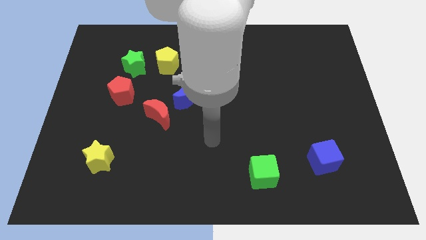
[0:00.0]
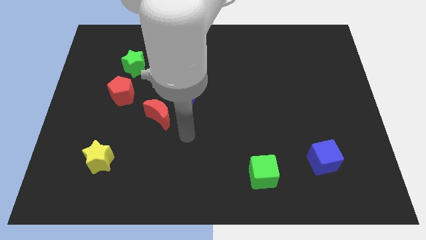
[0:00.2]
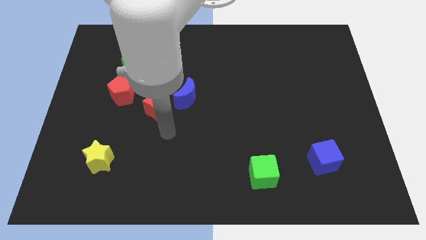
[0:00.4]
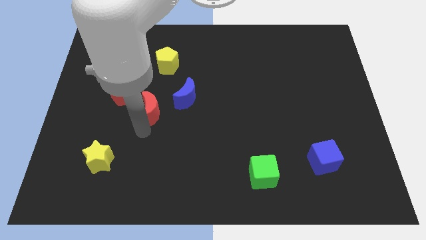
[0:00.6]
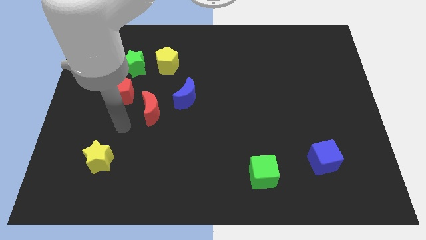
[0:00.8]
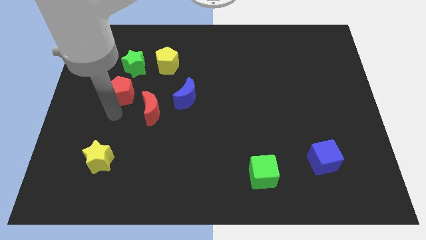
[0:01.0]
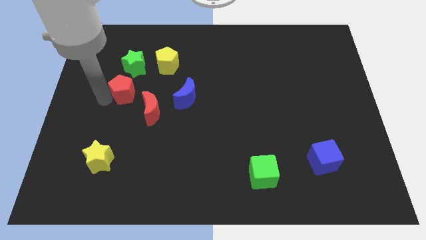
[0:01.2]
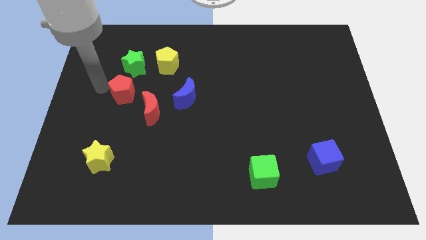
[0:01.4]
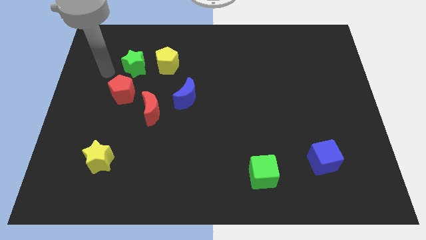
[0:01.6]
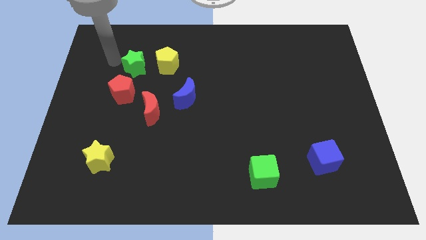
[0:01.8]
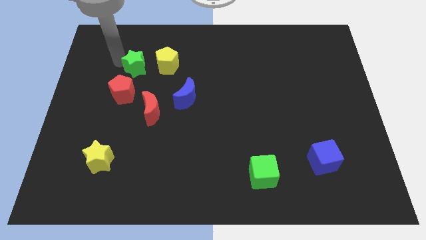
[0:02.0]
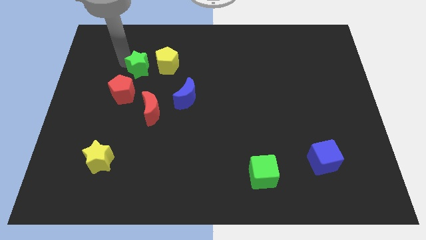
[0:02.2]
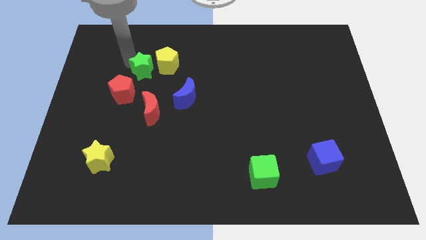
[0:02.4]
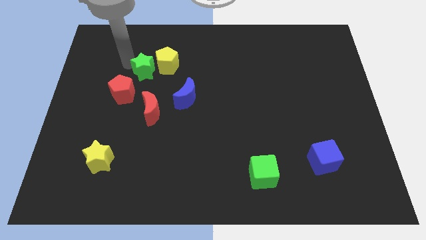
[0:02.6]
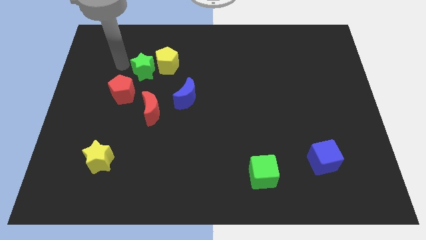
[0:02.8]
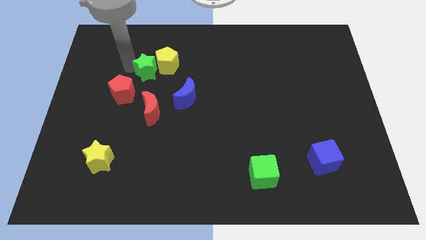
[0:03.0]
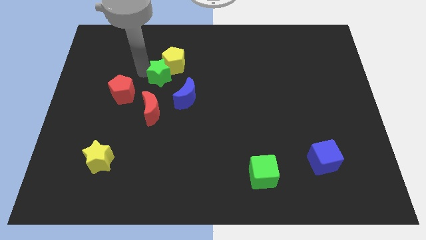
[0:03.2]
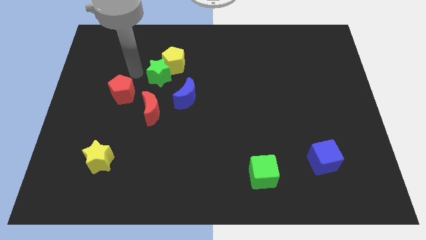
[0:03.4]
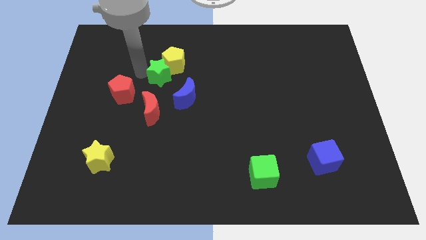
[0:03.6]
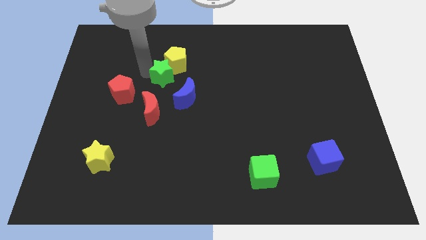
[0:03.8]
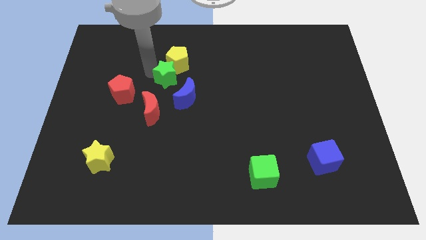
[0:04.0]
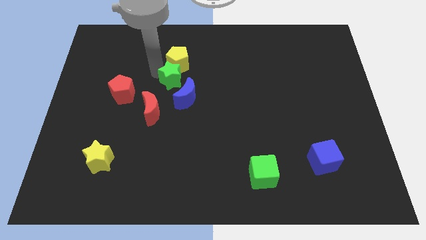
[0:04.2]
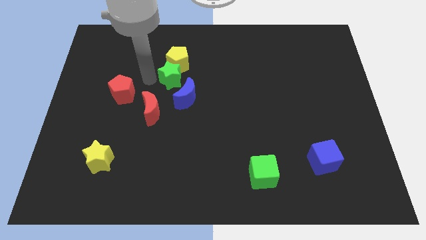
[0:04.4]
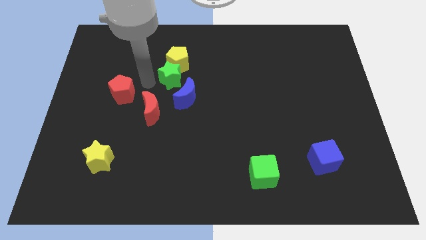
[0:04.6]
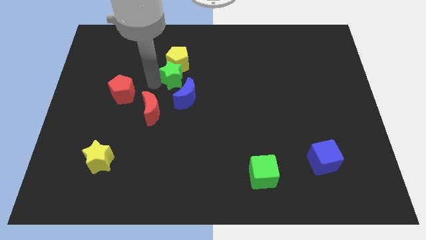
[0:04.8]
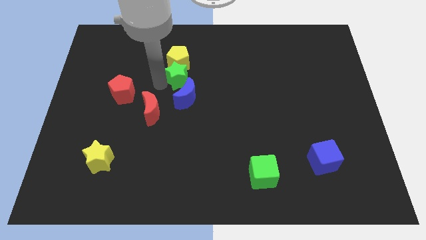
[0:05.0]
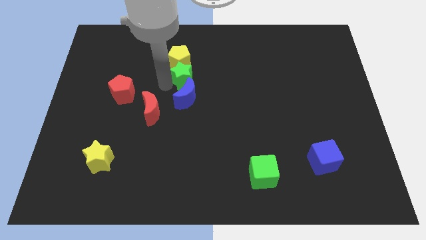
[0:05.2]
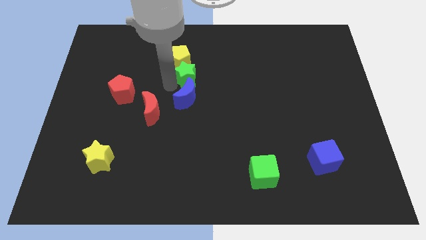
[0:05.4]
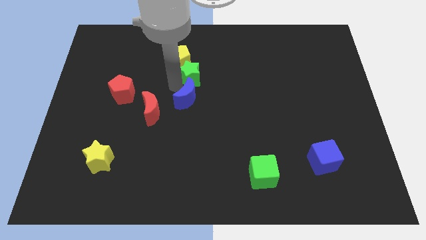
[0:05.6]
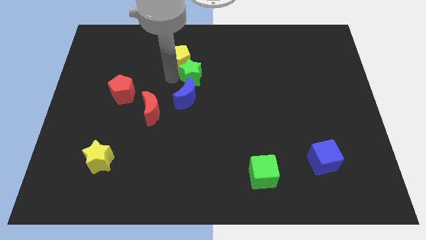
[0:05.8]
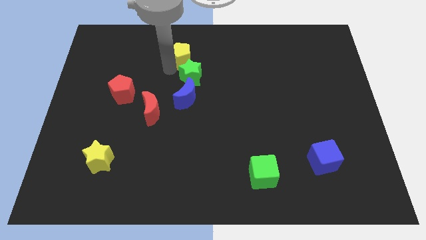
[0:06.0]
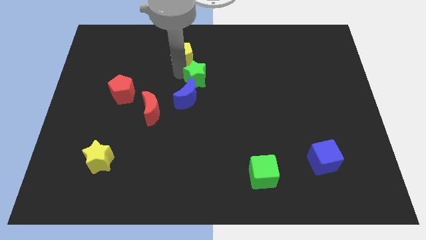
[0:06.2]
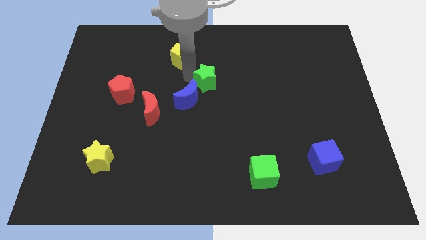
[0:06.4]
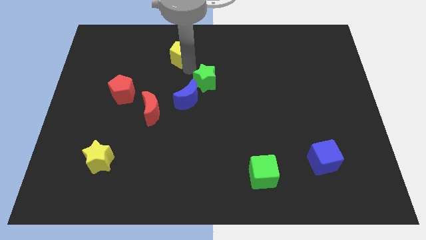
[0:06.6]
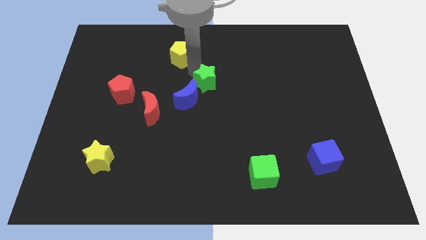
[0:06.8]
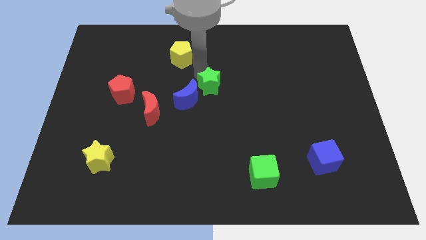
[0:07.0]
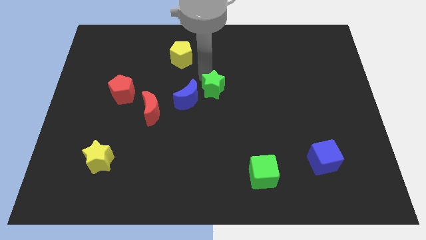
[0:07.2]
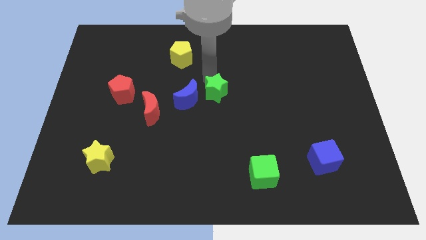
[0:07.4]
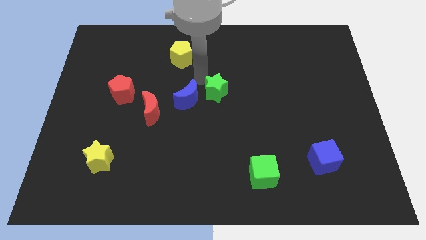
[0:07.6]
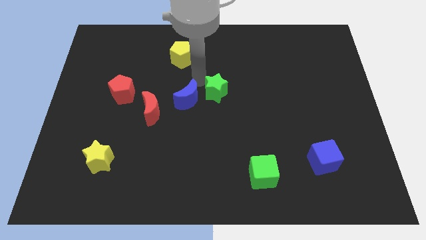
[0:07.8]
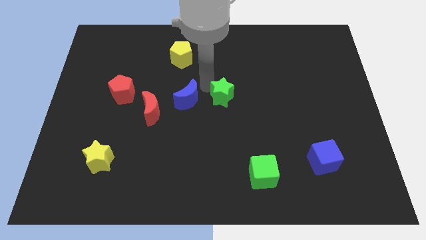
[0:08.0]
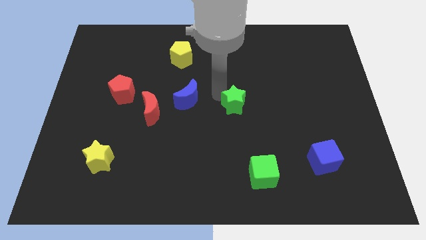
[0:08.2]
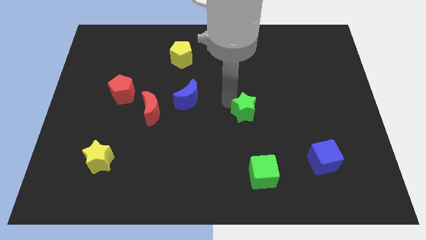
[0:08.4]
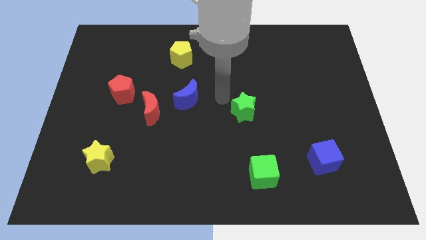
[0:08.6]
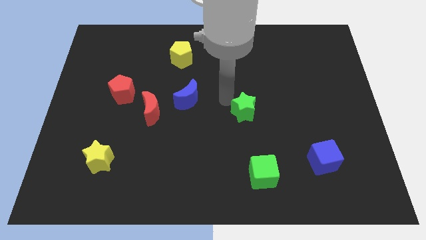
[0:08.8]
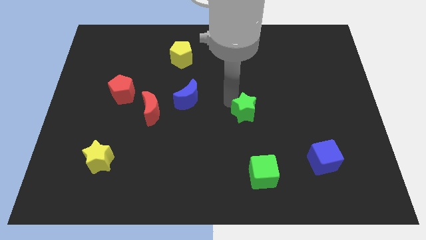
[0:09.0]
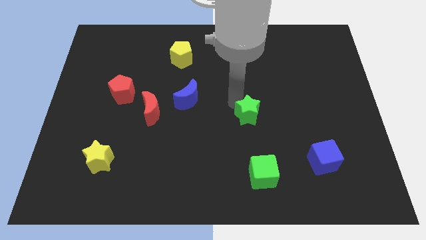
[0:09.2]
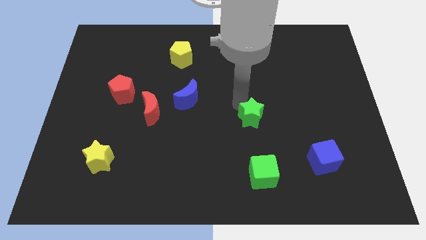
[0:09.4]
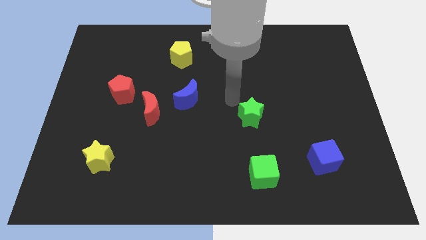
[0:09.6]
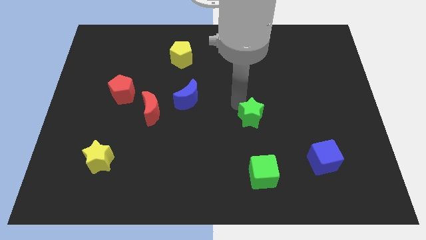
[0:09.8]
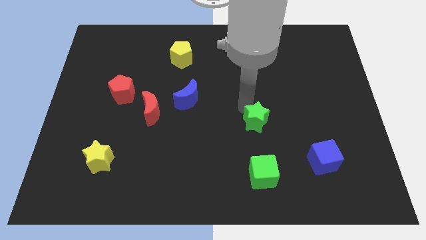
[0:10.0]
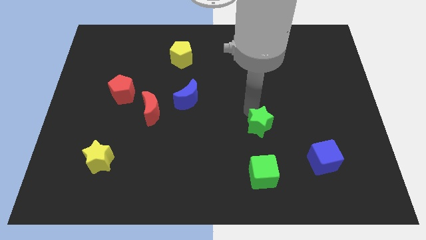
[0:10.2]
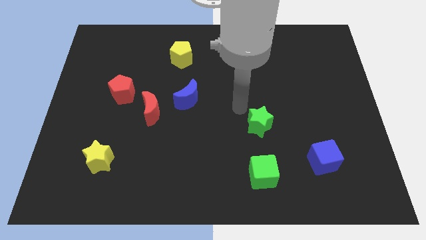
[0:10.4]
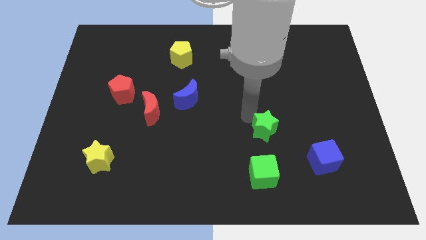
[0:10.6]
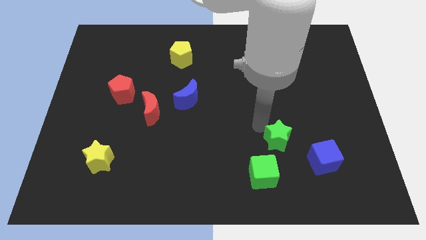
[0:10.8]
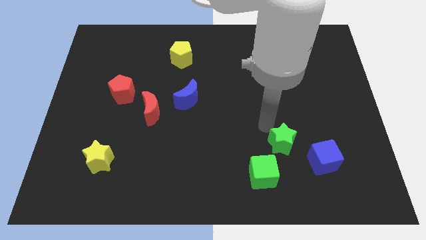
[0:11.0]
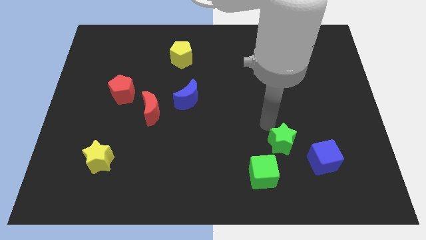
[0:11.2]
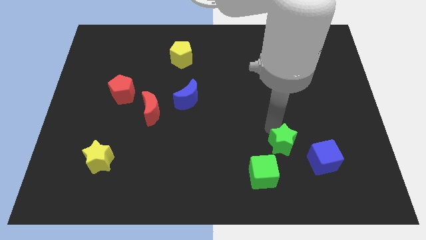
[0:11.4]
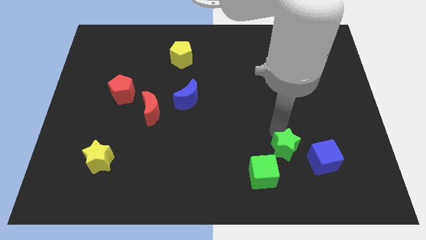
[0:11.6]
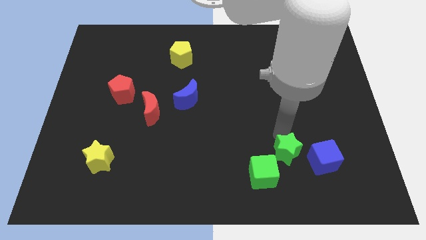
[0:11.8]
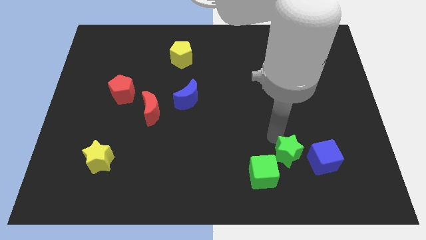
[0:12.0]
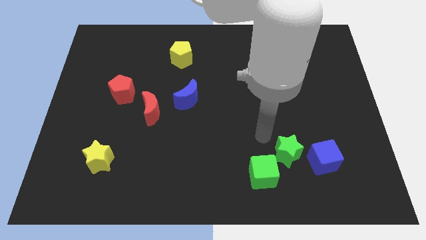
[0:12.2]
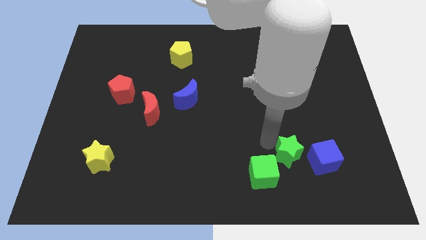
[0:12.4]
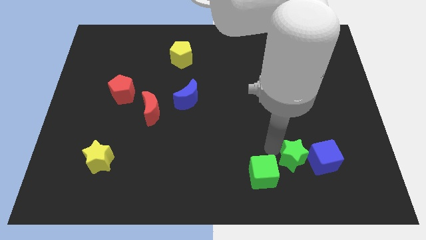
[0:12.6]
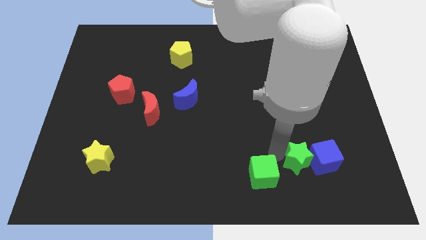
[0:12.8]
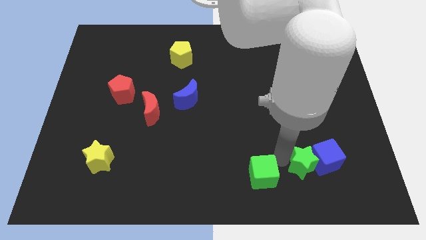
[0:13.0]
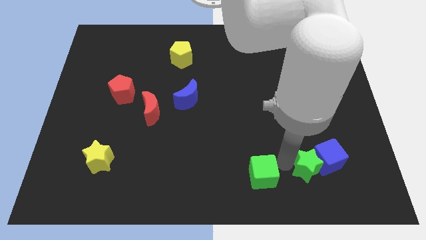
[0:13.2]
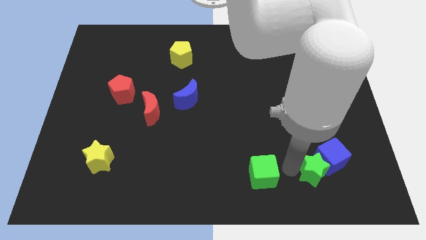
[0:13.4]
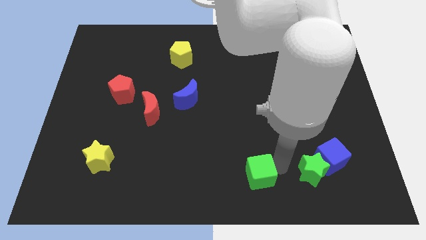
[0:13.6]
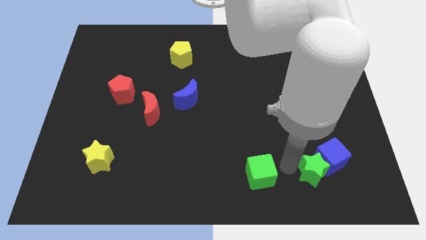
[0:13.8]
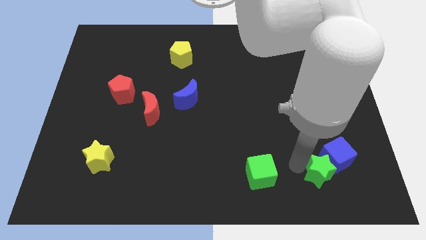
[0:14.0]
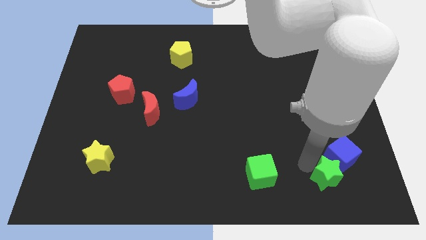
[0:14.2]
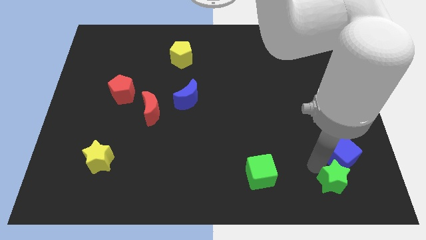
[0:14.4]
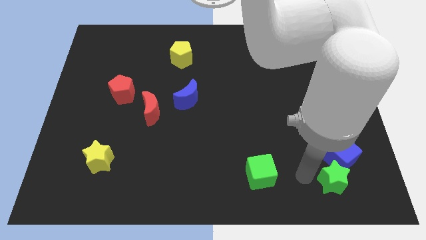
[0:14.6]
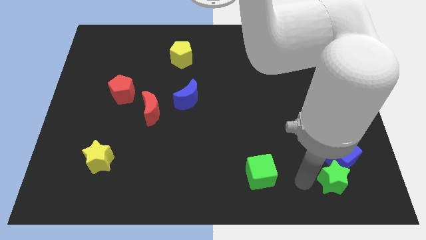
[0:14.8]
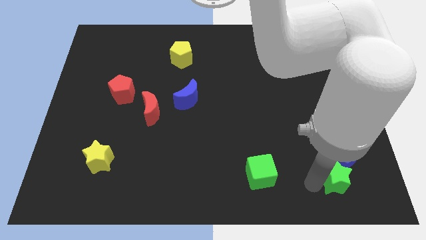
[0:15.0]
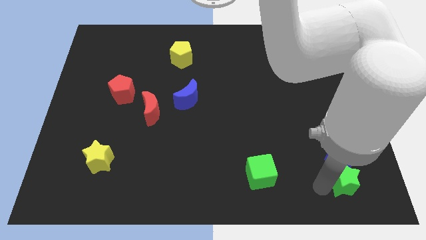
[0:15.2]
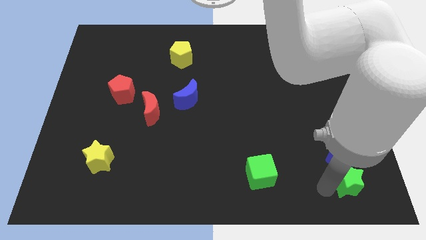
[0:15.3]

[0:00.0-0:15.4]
move the green star to the bottom right of the blue cube
